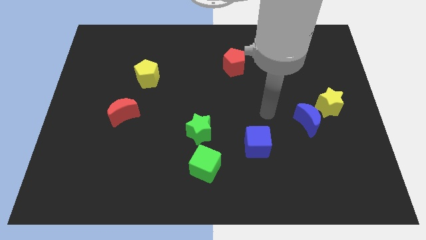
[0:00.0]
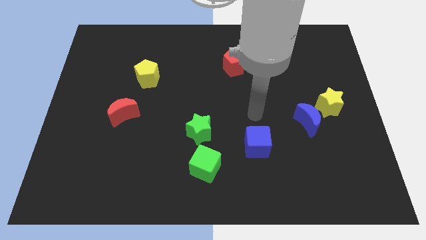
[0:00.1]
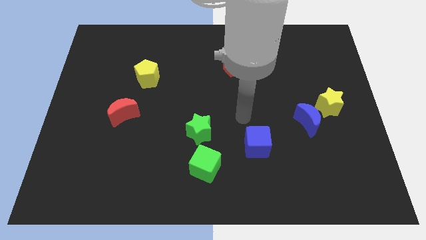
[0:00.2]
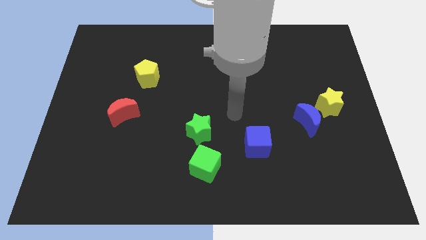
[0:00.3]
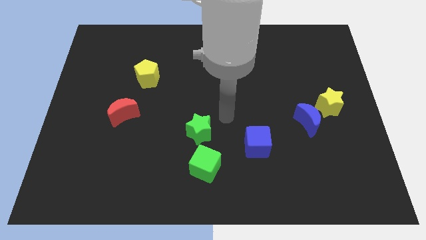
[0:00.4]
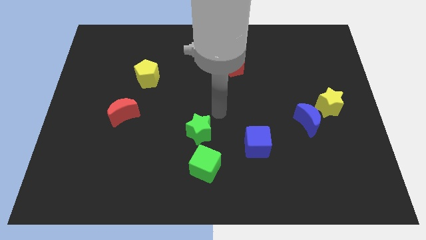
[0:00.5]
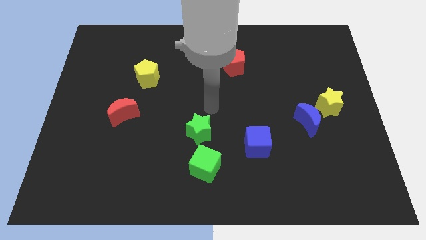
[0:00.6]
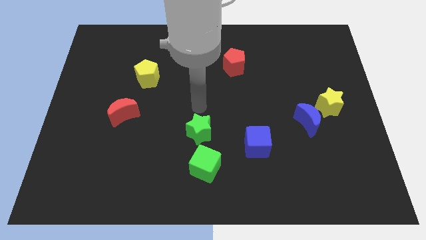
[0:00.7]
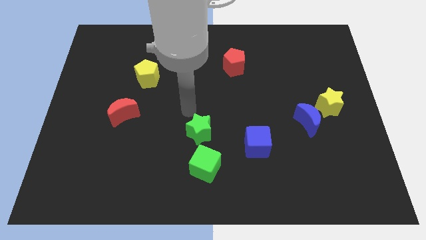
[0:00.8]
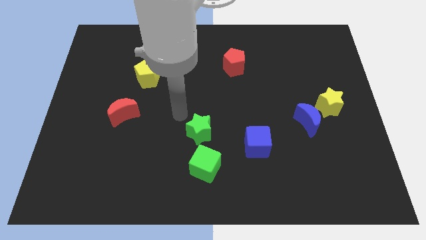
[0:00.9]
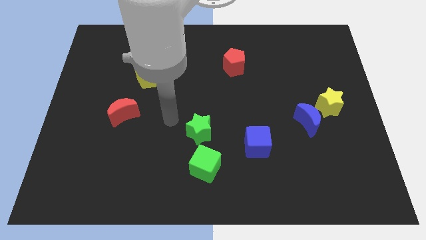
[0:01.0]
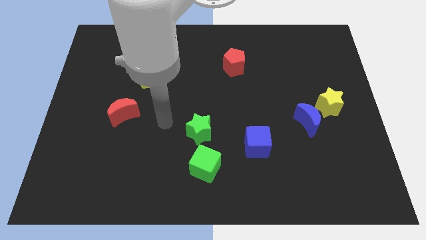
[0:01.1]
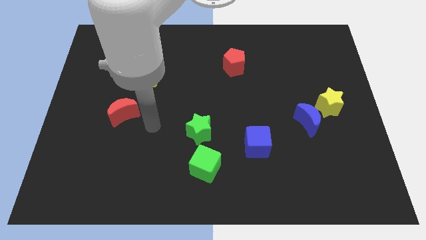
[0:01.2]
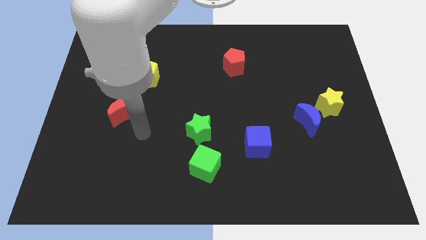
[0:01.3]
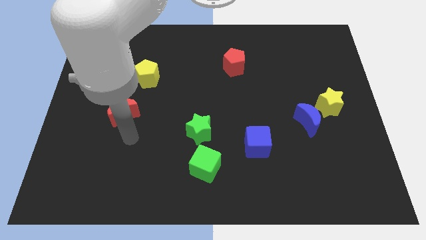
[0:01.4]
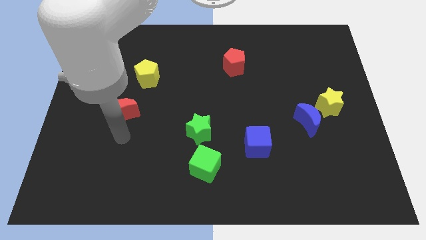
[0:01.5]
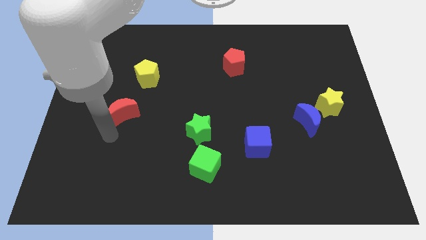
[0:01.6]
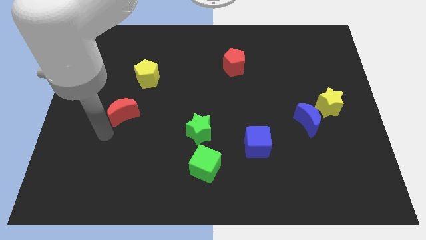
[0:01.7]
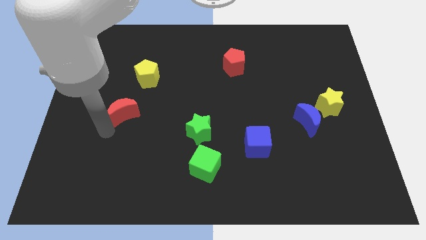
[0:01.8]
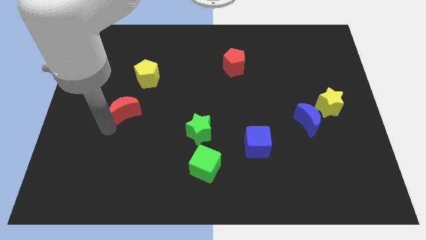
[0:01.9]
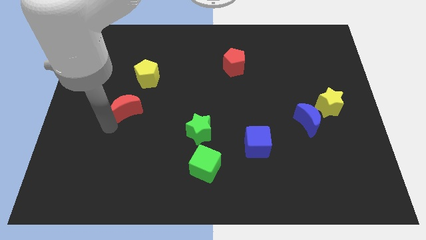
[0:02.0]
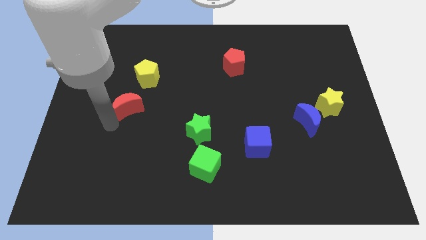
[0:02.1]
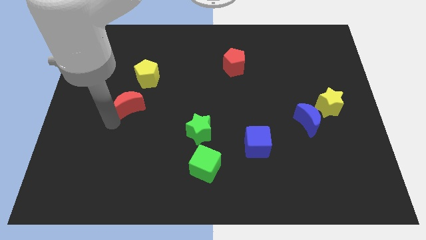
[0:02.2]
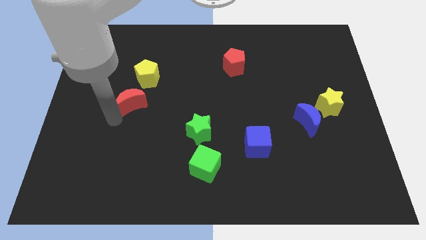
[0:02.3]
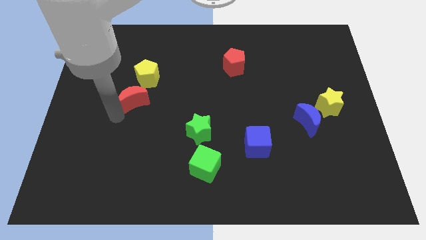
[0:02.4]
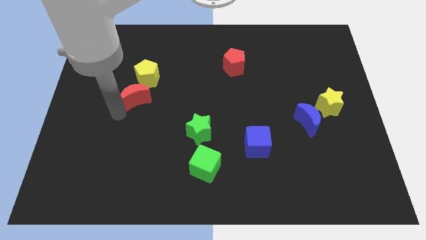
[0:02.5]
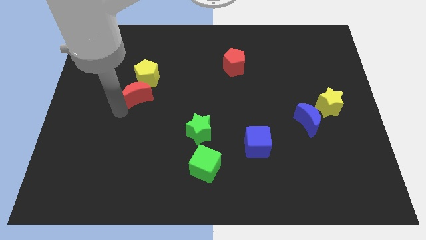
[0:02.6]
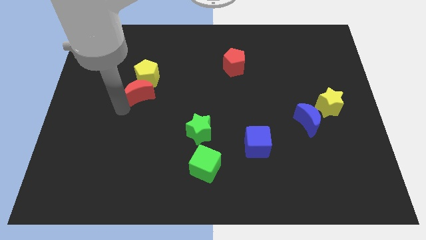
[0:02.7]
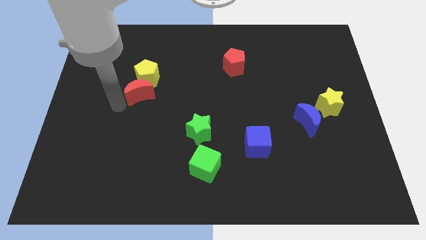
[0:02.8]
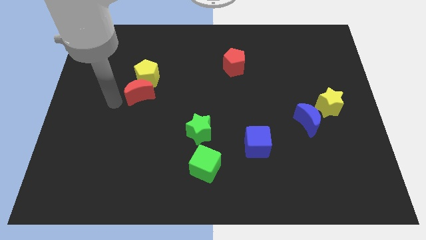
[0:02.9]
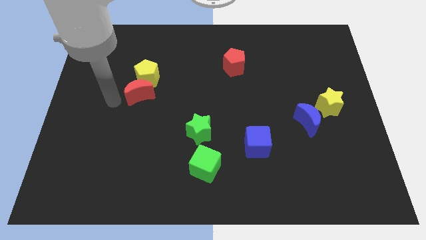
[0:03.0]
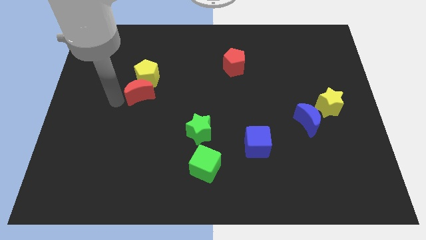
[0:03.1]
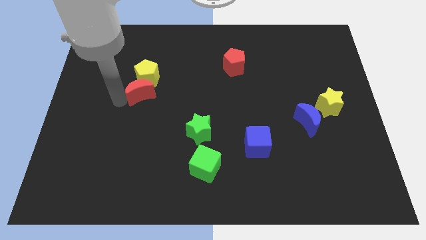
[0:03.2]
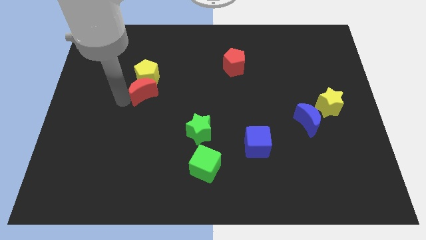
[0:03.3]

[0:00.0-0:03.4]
slide the red moon up and then to the right a little bit

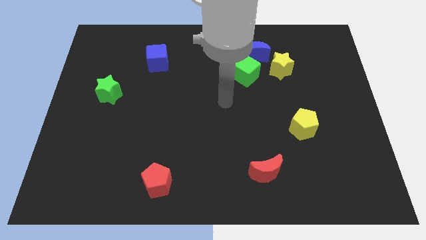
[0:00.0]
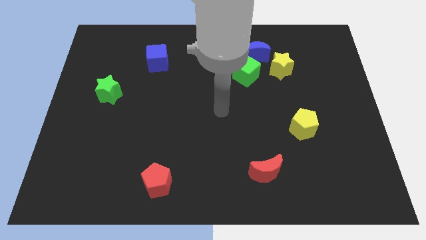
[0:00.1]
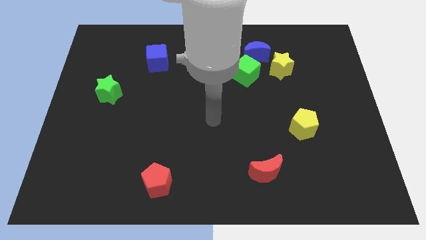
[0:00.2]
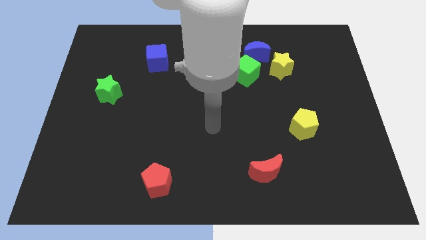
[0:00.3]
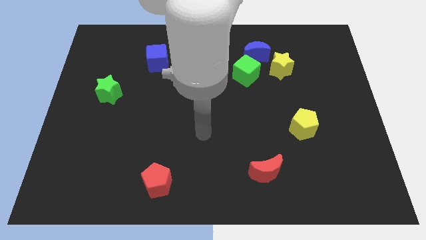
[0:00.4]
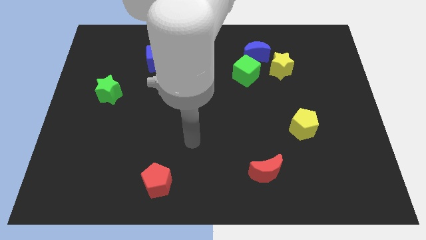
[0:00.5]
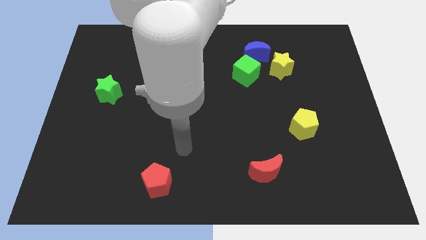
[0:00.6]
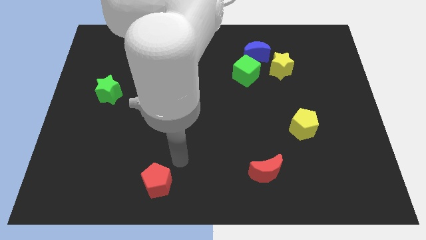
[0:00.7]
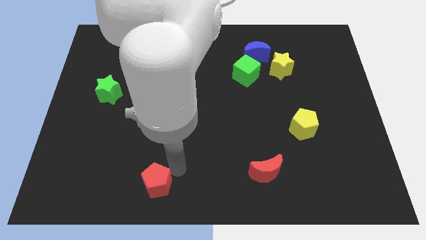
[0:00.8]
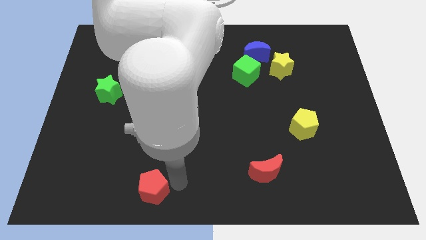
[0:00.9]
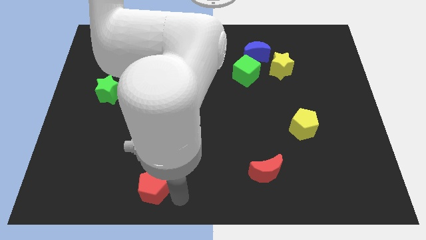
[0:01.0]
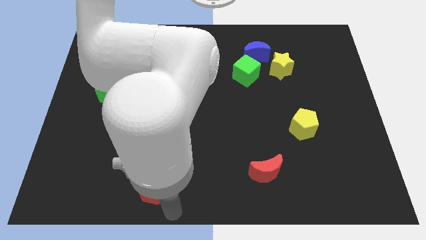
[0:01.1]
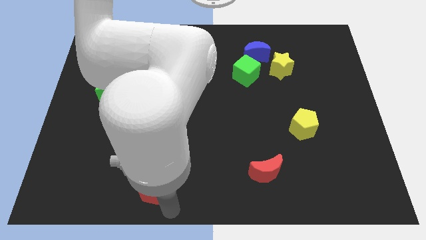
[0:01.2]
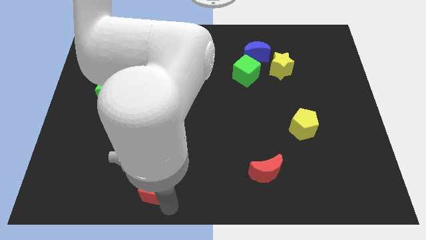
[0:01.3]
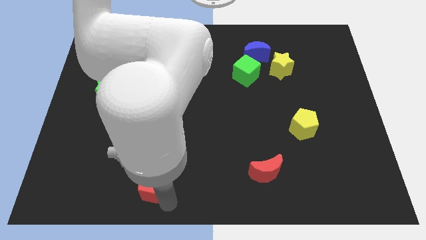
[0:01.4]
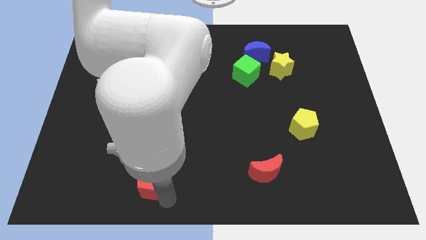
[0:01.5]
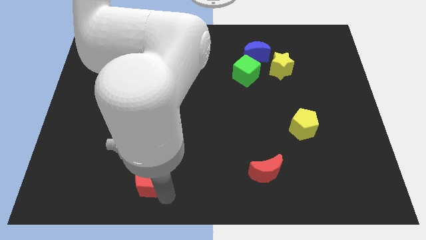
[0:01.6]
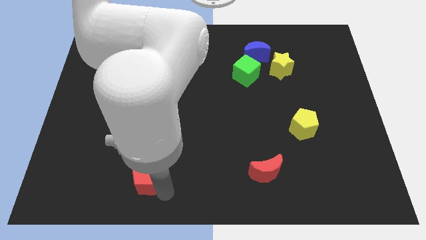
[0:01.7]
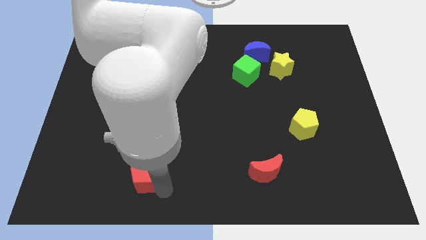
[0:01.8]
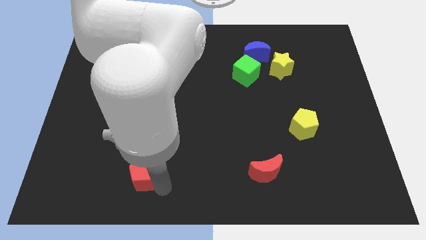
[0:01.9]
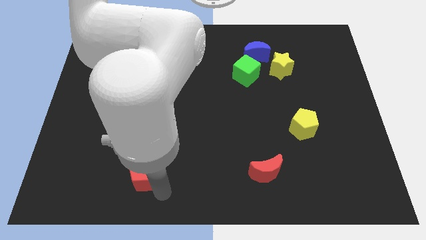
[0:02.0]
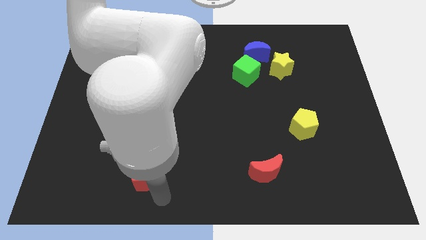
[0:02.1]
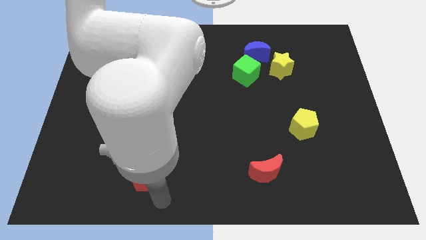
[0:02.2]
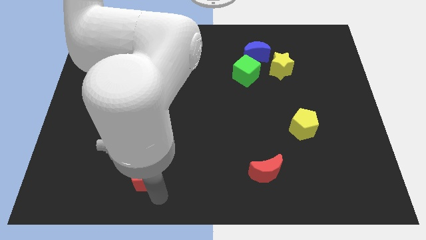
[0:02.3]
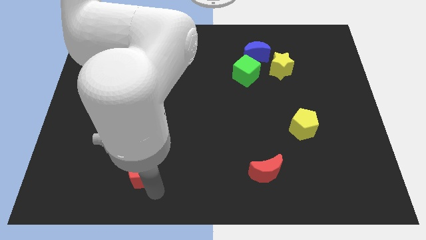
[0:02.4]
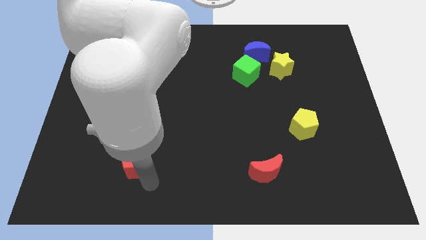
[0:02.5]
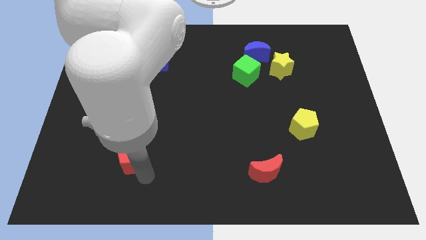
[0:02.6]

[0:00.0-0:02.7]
slightly push the red pentagon up and to the left diagonally

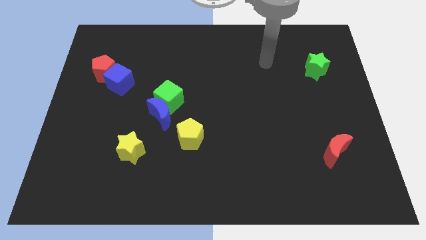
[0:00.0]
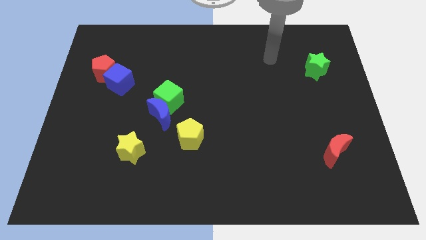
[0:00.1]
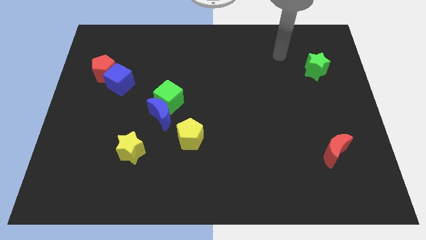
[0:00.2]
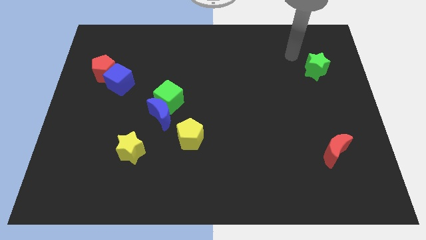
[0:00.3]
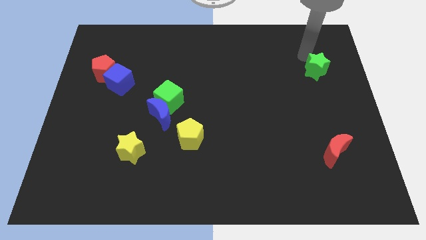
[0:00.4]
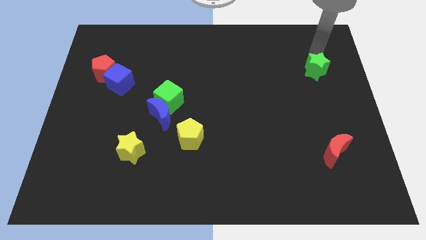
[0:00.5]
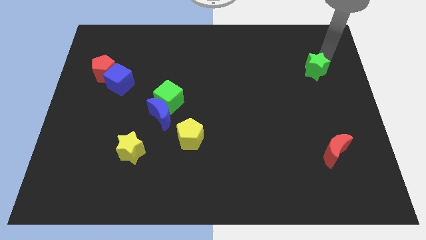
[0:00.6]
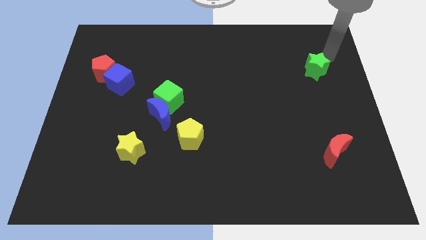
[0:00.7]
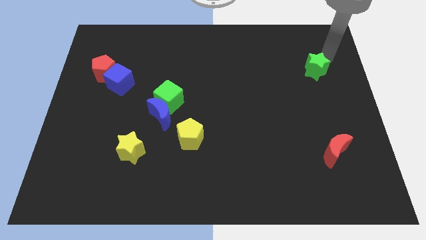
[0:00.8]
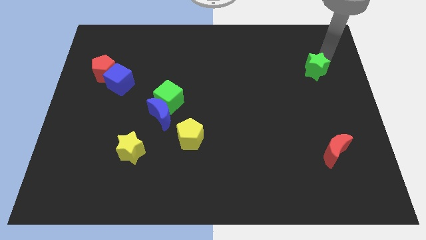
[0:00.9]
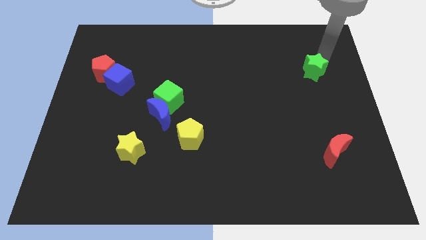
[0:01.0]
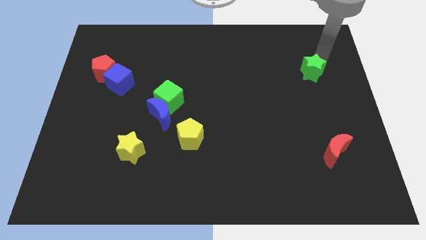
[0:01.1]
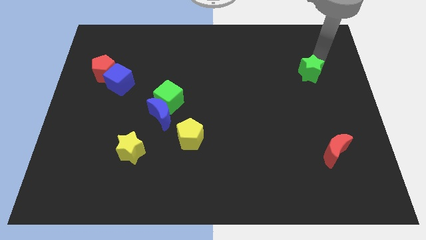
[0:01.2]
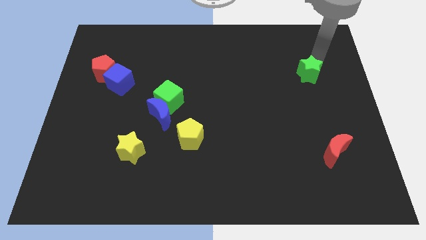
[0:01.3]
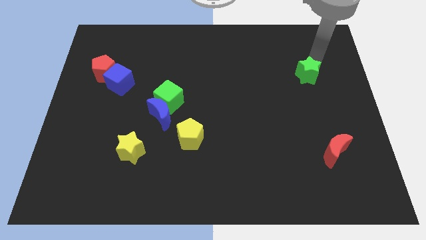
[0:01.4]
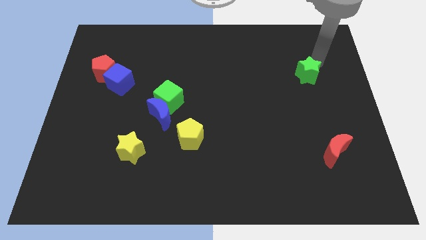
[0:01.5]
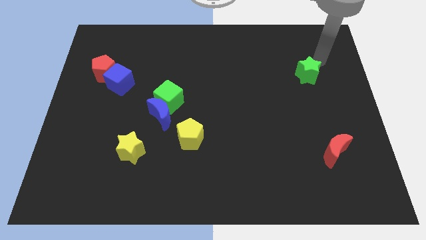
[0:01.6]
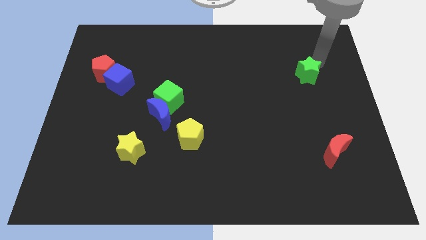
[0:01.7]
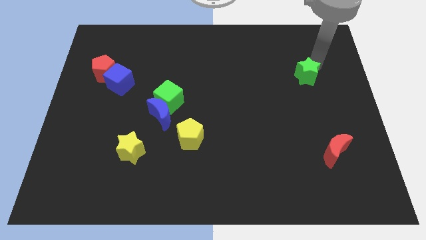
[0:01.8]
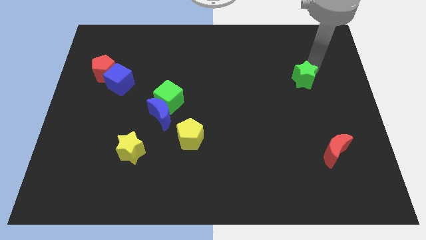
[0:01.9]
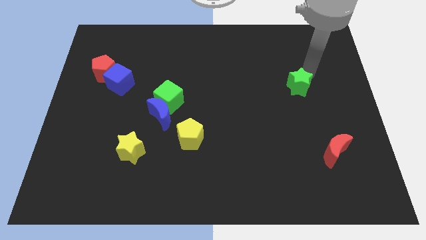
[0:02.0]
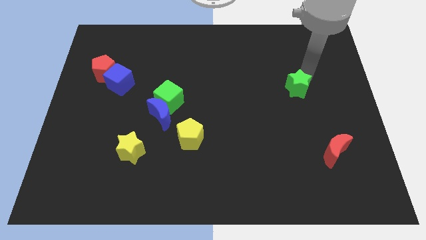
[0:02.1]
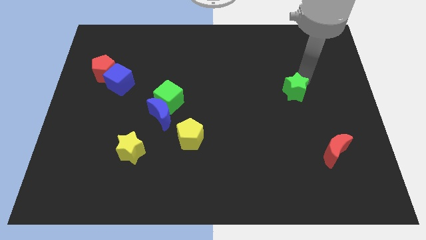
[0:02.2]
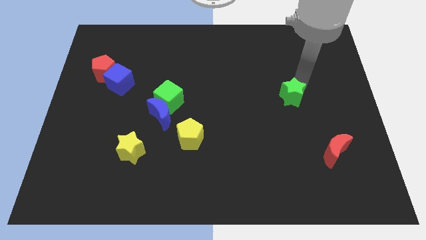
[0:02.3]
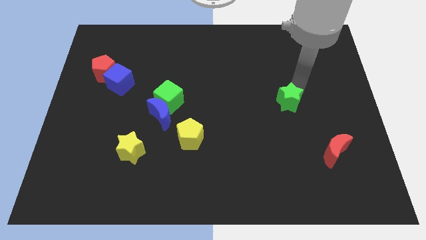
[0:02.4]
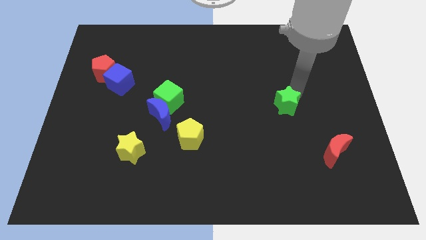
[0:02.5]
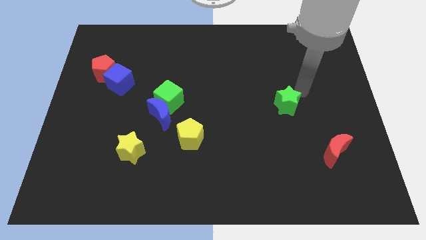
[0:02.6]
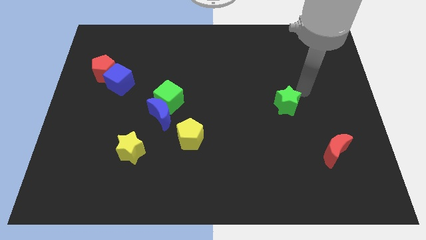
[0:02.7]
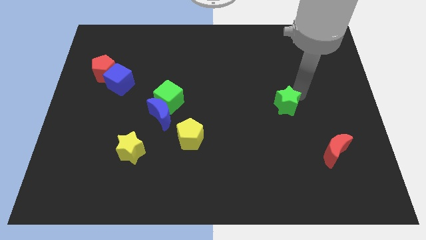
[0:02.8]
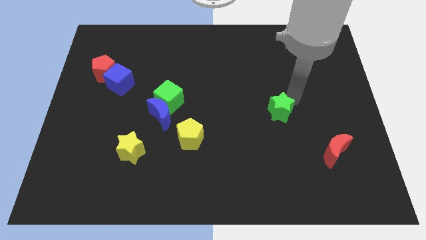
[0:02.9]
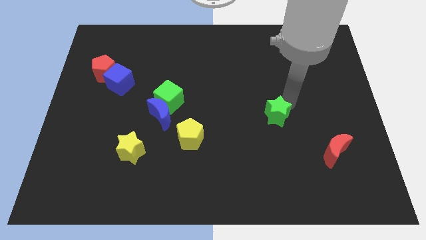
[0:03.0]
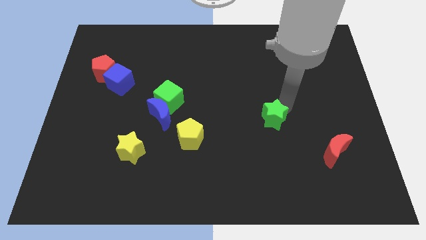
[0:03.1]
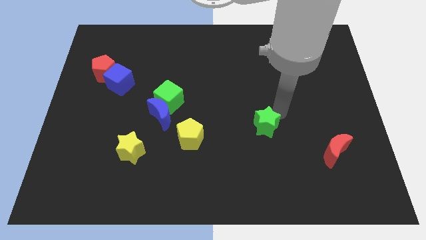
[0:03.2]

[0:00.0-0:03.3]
move the green star down and left diagonally
